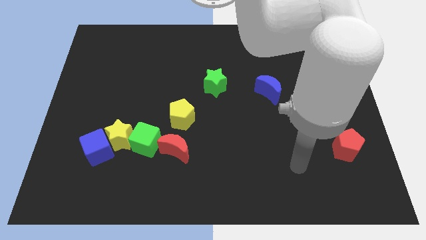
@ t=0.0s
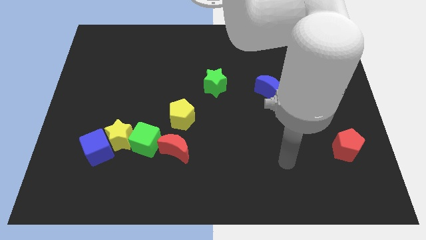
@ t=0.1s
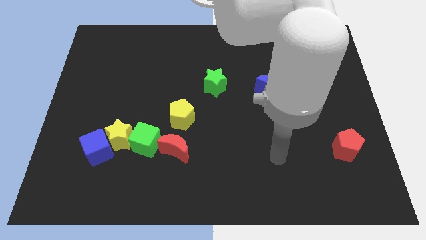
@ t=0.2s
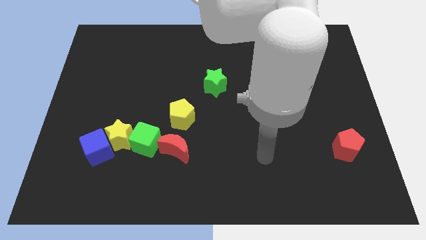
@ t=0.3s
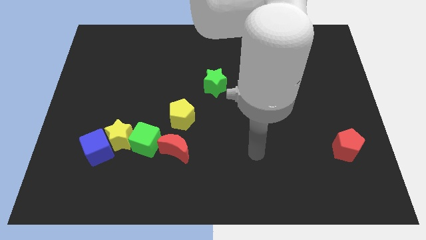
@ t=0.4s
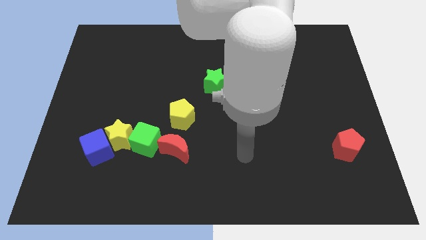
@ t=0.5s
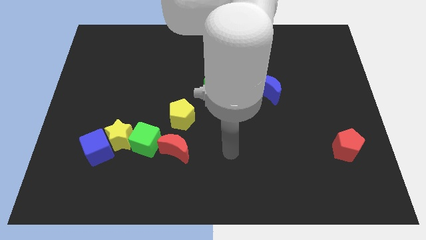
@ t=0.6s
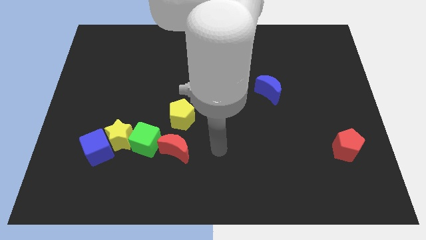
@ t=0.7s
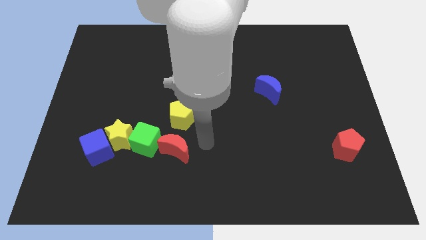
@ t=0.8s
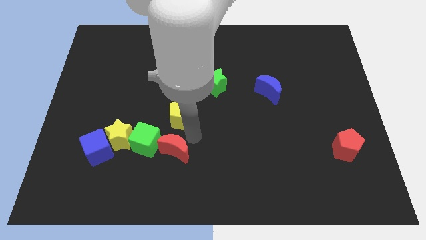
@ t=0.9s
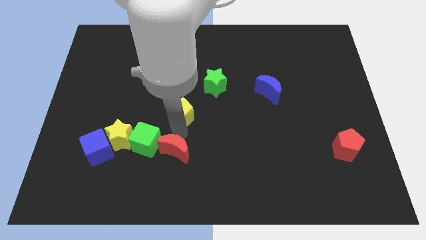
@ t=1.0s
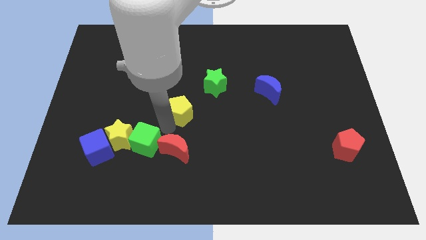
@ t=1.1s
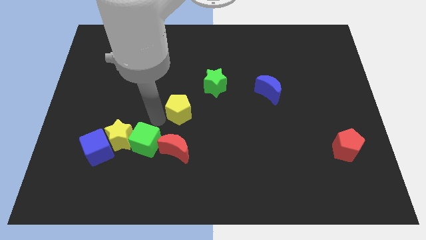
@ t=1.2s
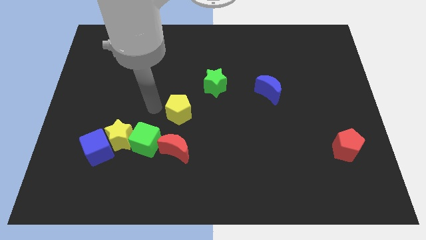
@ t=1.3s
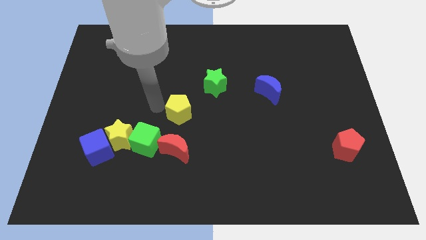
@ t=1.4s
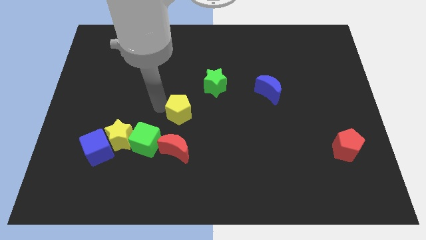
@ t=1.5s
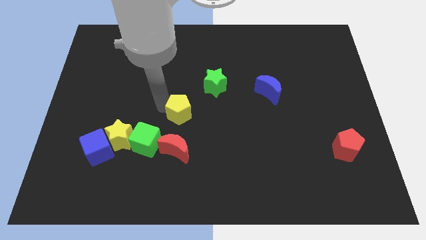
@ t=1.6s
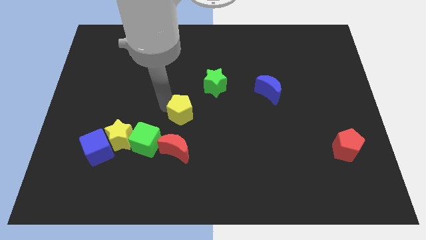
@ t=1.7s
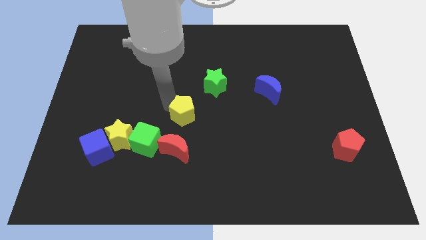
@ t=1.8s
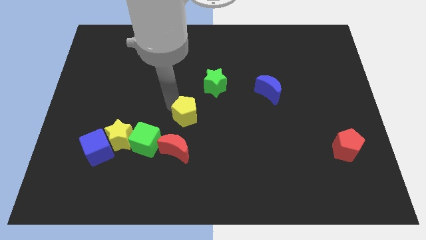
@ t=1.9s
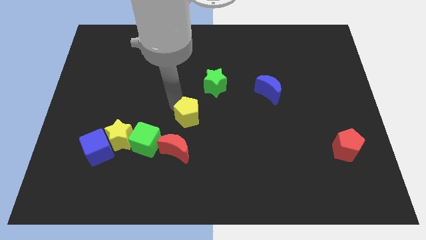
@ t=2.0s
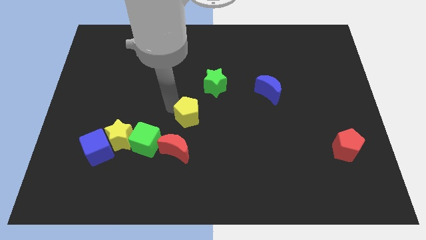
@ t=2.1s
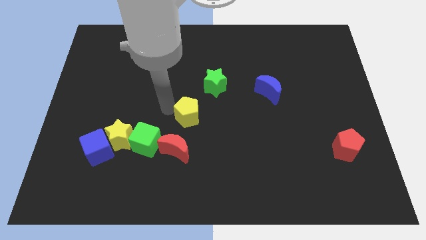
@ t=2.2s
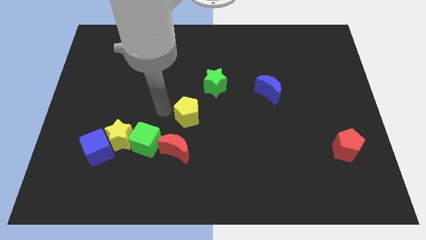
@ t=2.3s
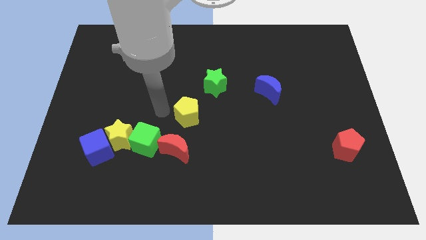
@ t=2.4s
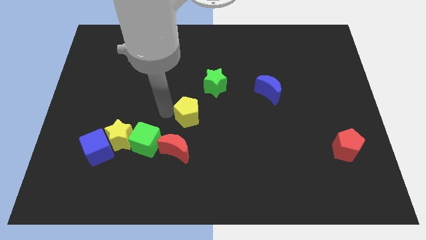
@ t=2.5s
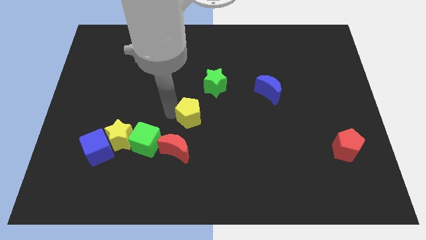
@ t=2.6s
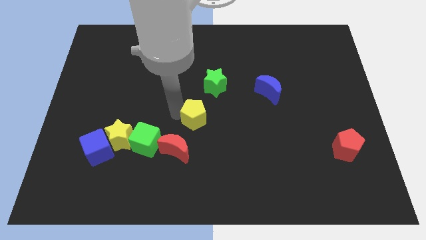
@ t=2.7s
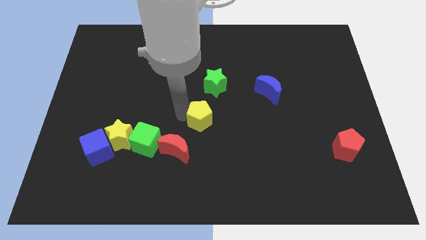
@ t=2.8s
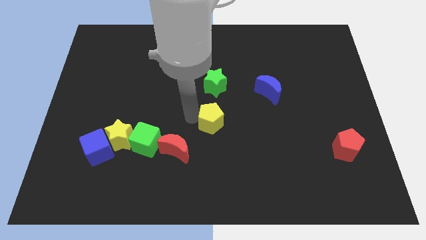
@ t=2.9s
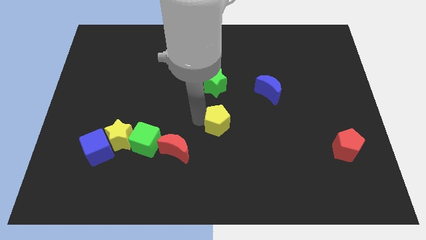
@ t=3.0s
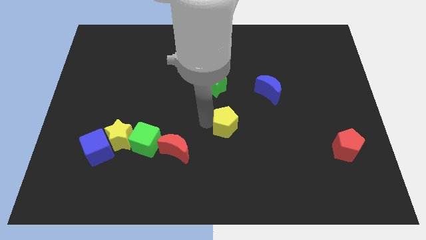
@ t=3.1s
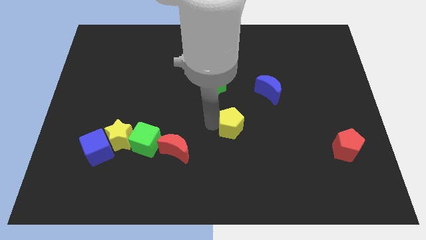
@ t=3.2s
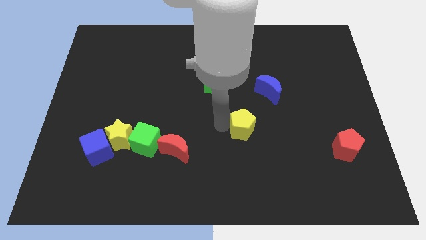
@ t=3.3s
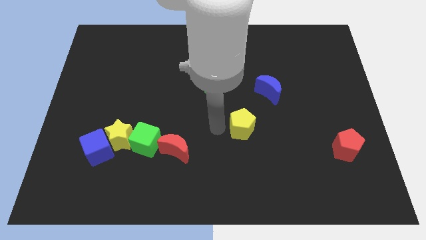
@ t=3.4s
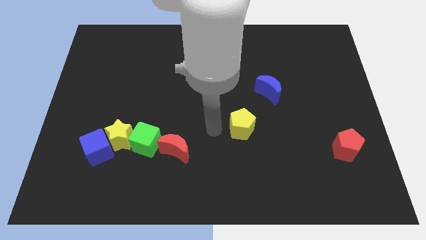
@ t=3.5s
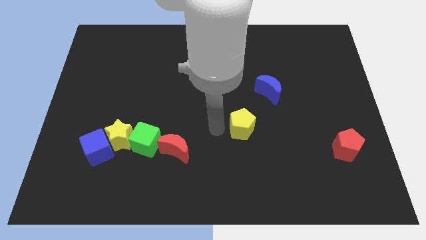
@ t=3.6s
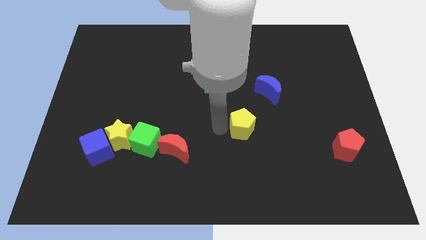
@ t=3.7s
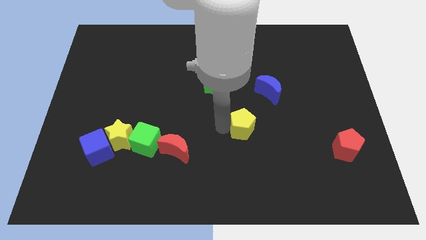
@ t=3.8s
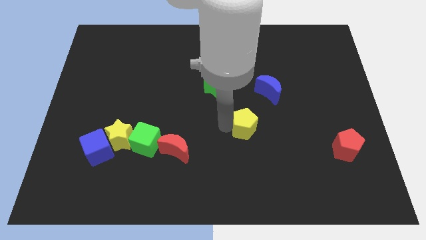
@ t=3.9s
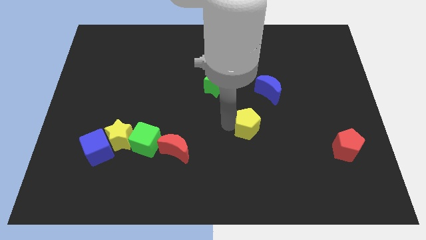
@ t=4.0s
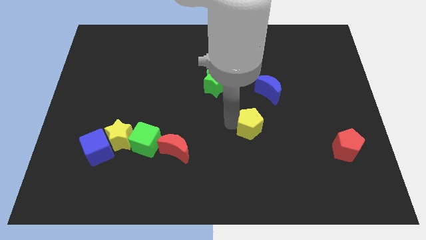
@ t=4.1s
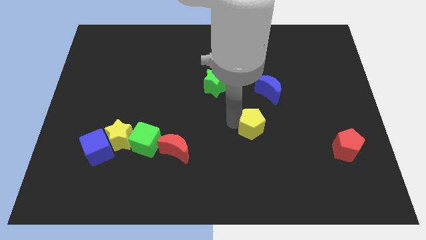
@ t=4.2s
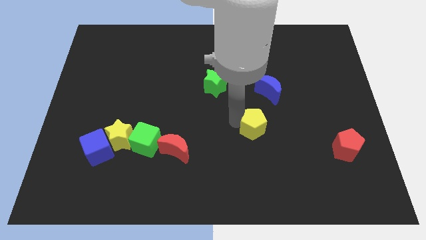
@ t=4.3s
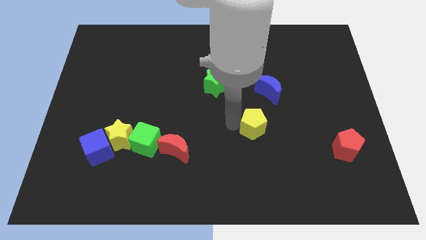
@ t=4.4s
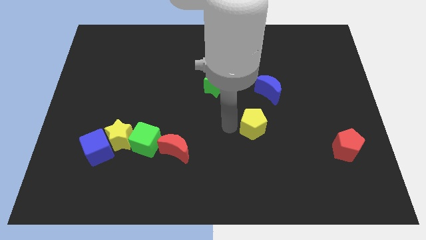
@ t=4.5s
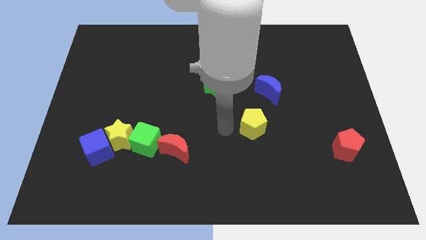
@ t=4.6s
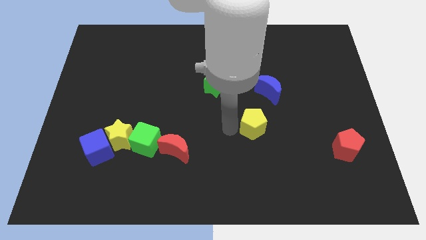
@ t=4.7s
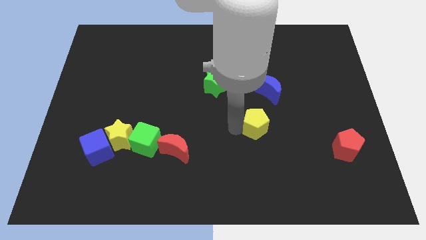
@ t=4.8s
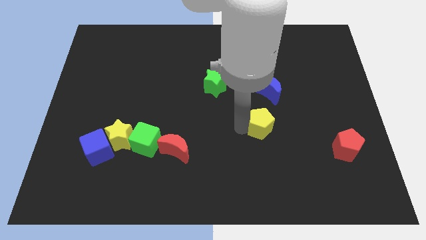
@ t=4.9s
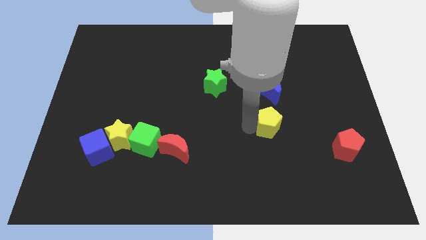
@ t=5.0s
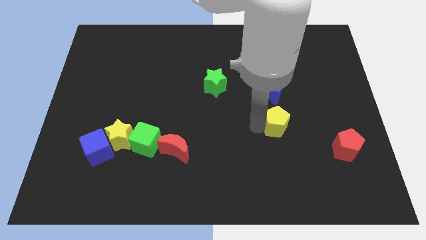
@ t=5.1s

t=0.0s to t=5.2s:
move the yellow pentagon to the right

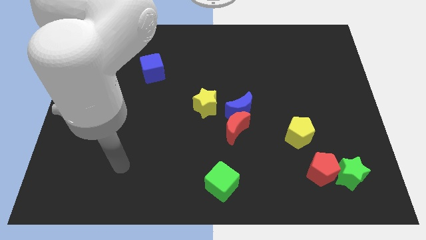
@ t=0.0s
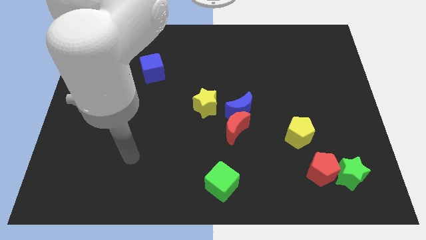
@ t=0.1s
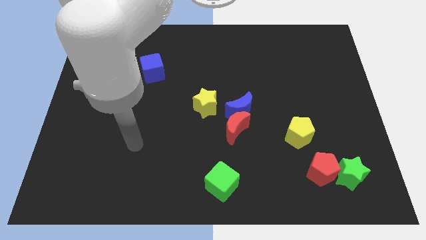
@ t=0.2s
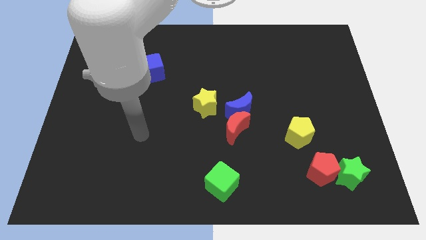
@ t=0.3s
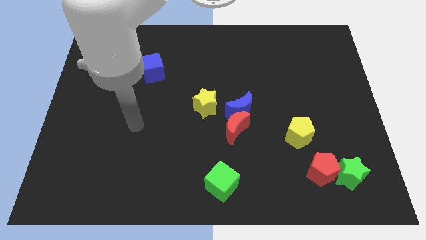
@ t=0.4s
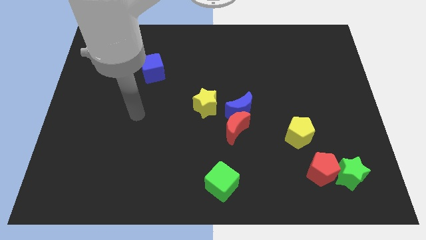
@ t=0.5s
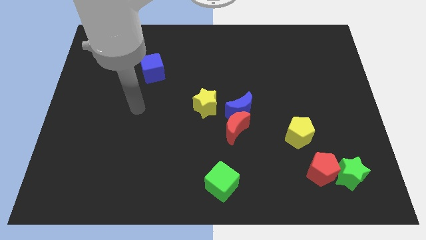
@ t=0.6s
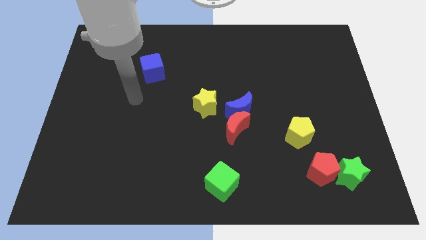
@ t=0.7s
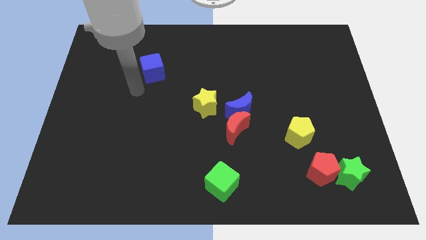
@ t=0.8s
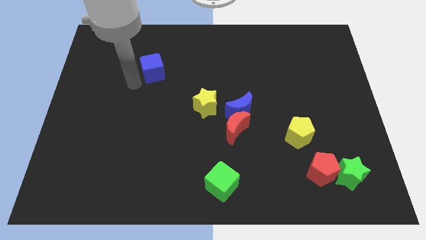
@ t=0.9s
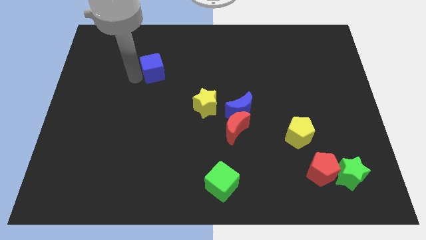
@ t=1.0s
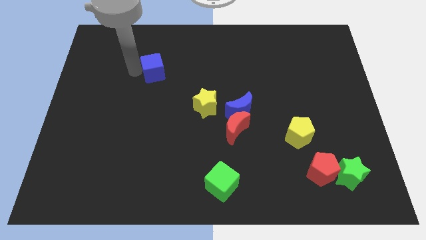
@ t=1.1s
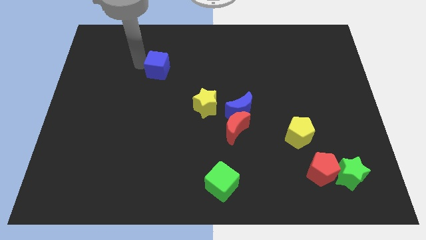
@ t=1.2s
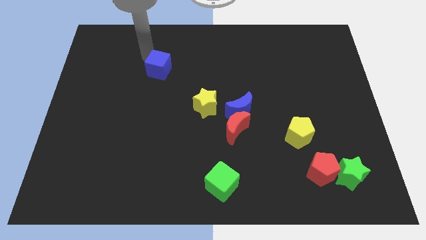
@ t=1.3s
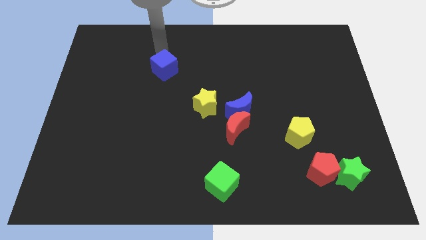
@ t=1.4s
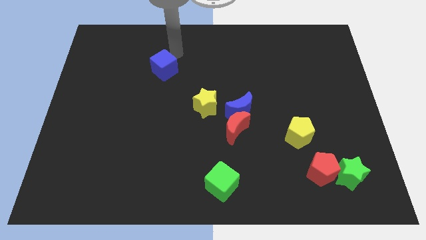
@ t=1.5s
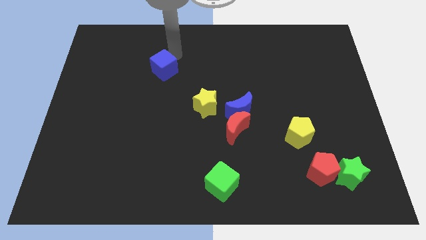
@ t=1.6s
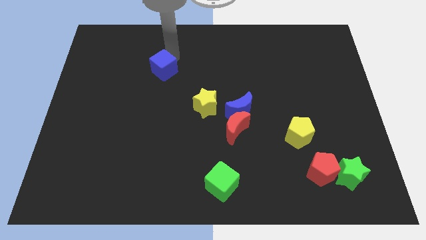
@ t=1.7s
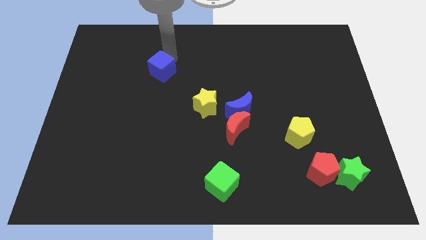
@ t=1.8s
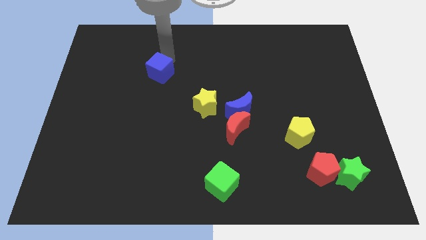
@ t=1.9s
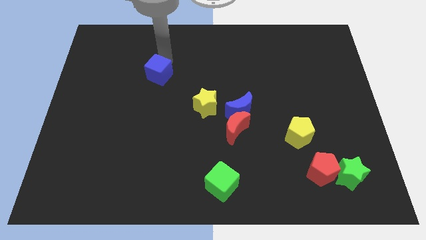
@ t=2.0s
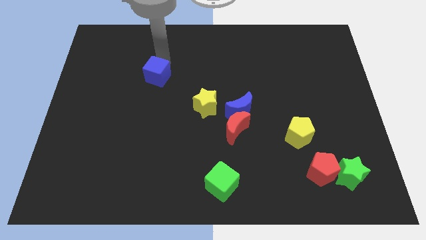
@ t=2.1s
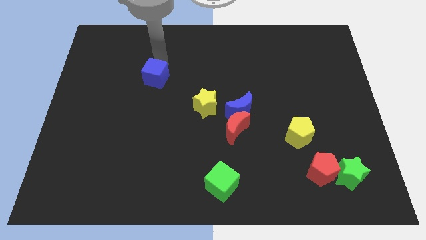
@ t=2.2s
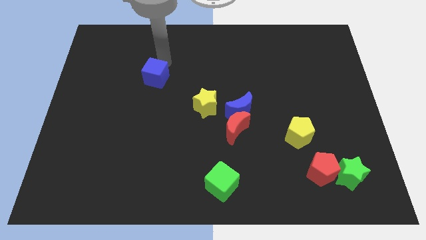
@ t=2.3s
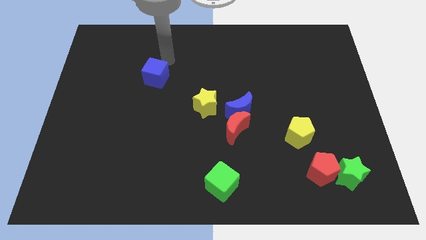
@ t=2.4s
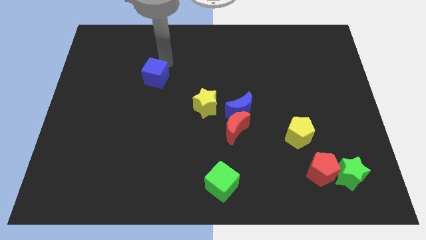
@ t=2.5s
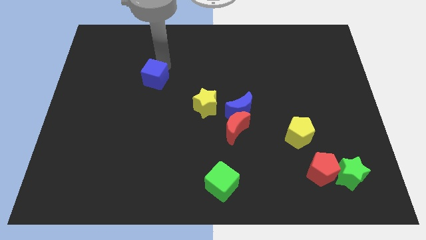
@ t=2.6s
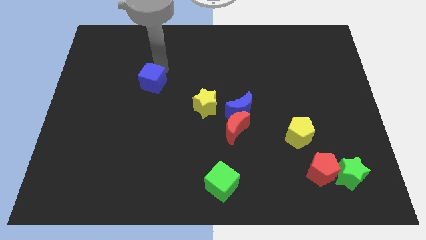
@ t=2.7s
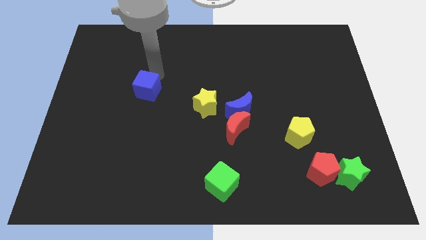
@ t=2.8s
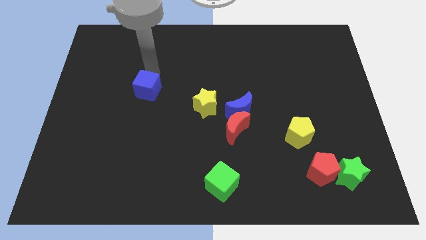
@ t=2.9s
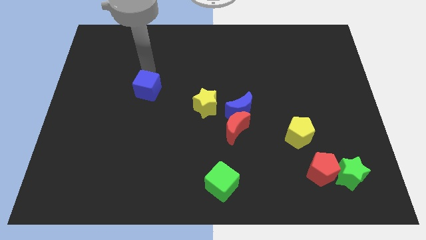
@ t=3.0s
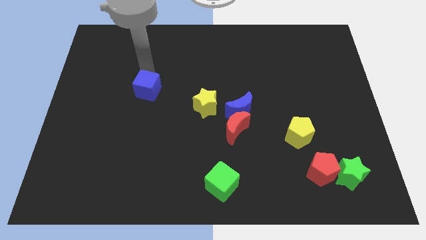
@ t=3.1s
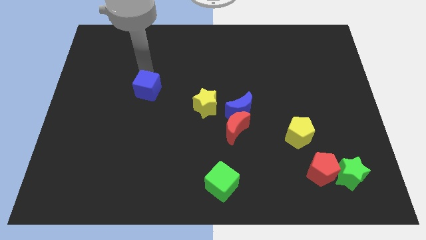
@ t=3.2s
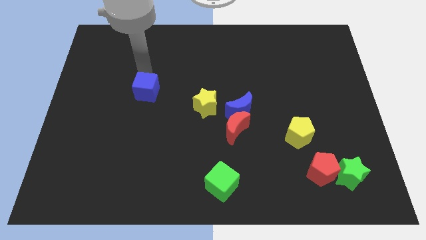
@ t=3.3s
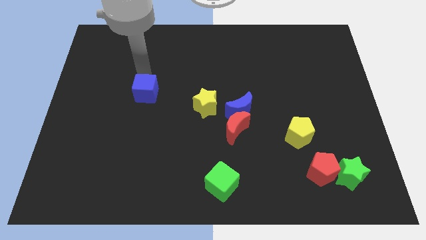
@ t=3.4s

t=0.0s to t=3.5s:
slightly push the blue cube downwards

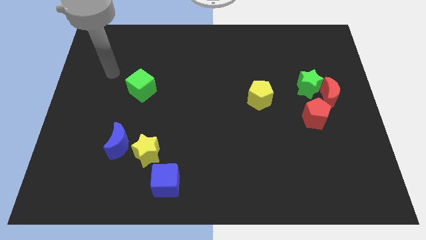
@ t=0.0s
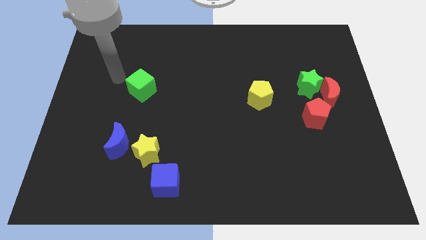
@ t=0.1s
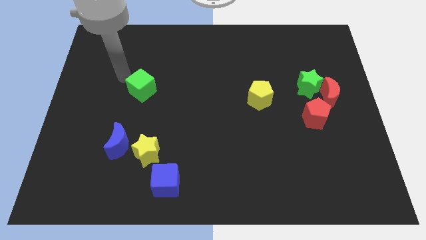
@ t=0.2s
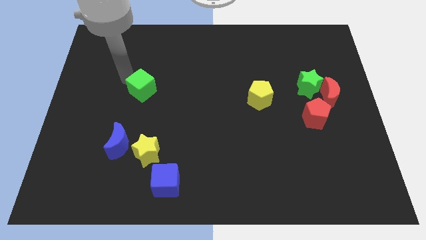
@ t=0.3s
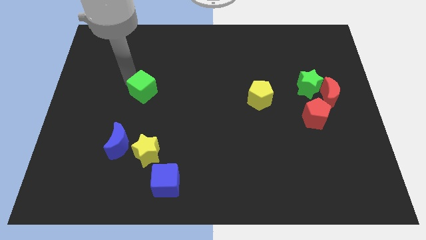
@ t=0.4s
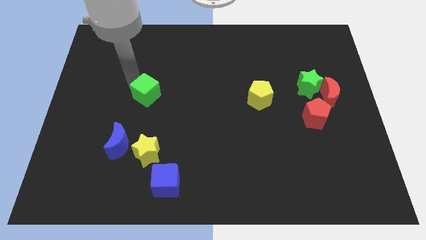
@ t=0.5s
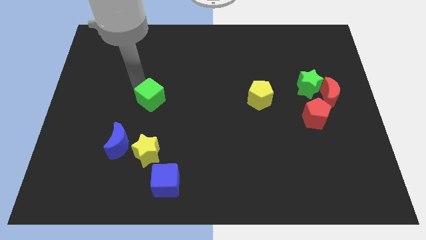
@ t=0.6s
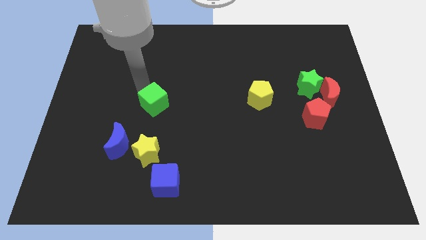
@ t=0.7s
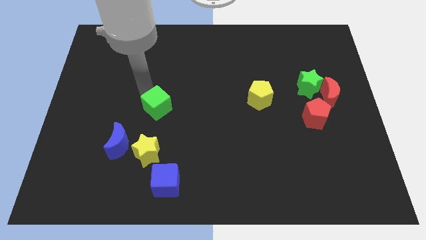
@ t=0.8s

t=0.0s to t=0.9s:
slightly move the green cube downwards and then right
